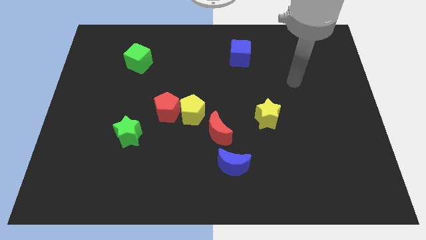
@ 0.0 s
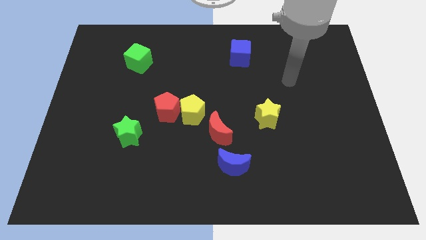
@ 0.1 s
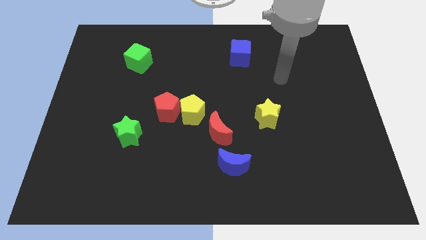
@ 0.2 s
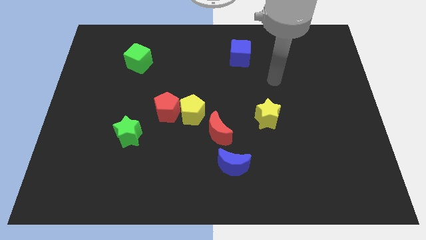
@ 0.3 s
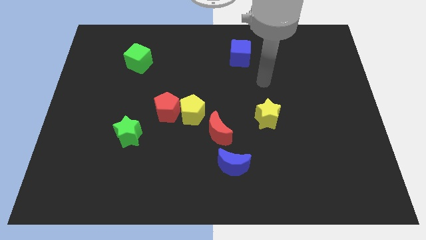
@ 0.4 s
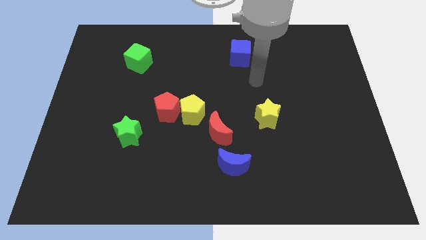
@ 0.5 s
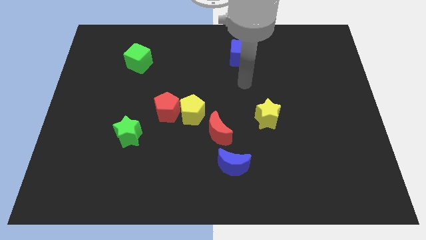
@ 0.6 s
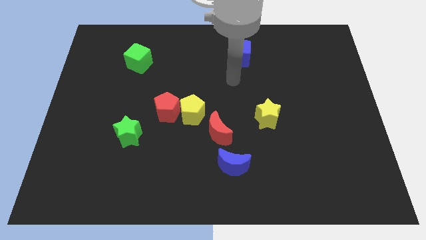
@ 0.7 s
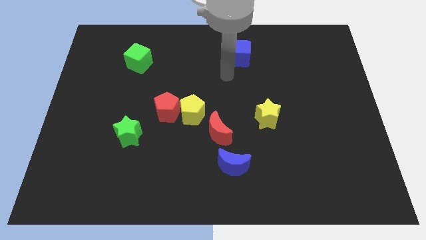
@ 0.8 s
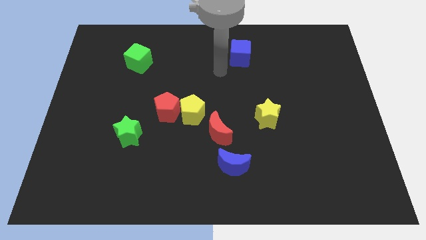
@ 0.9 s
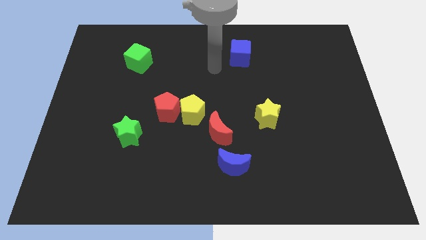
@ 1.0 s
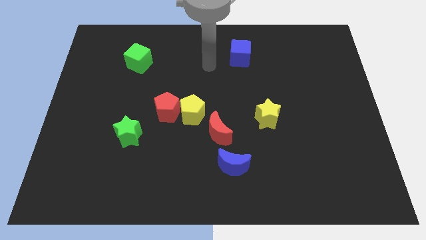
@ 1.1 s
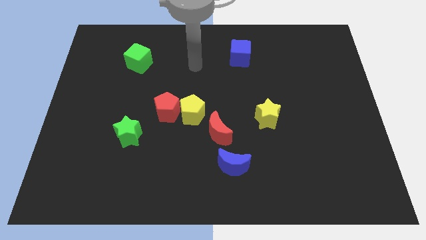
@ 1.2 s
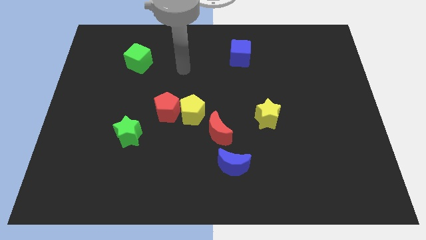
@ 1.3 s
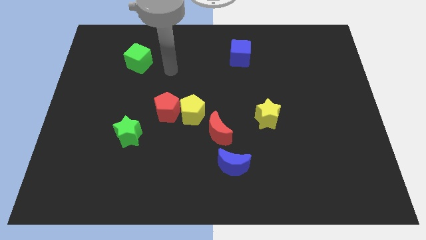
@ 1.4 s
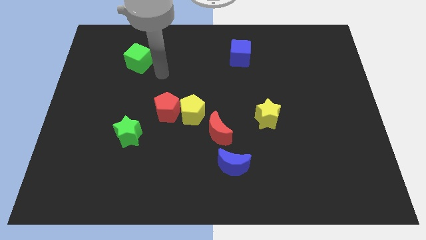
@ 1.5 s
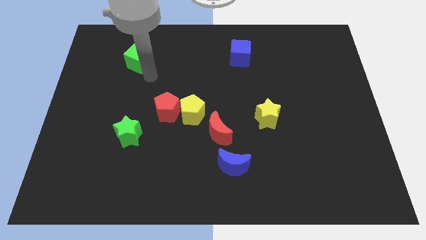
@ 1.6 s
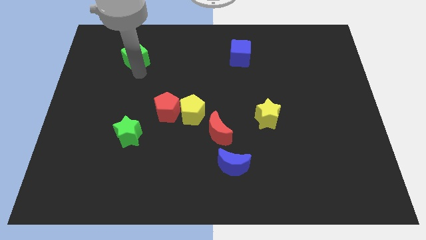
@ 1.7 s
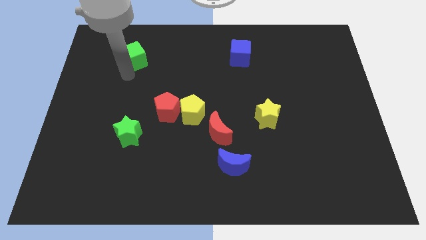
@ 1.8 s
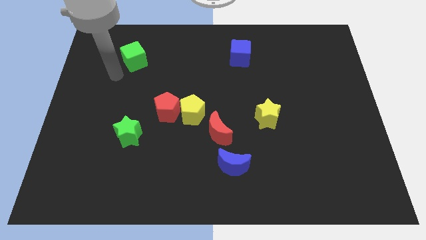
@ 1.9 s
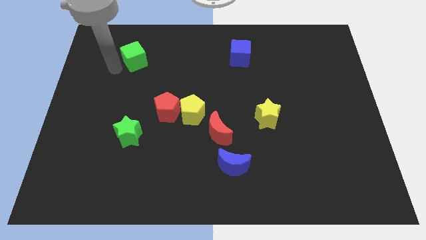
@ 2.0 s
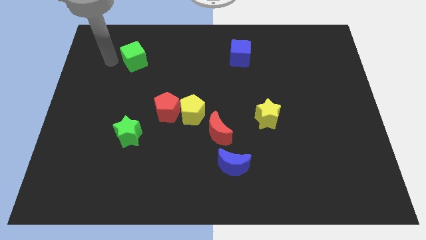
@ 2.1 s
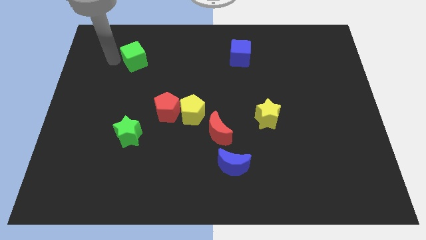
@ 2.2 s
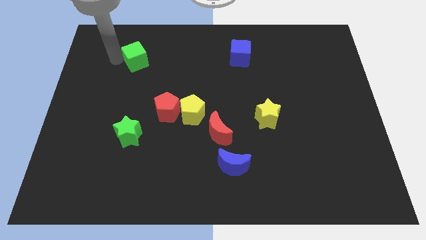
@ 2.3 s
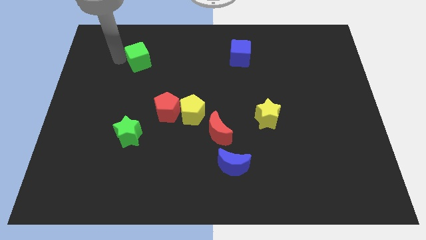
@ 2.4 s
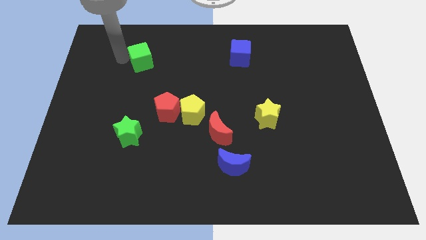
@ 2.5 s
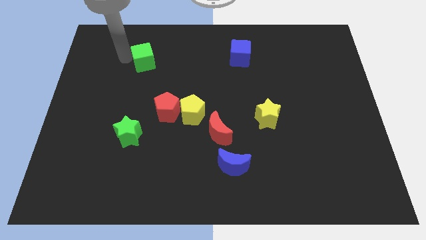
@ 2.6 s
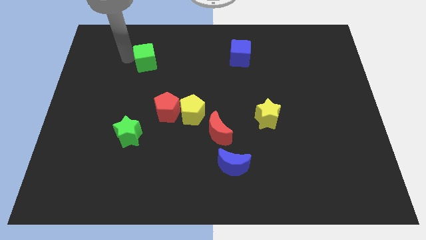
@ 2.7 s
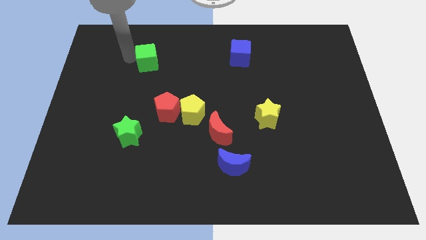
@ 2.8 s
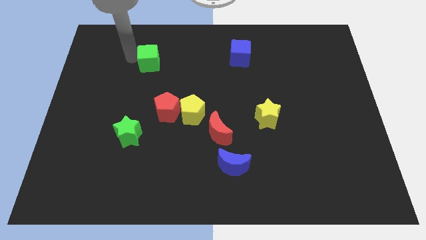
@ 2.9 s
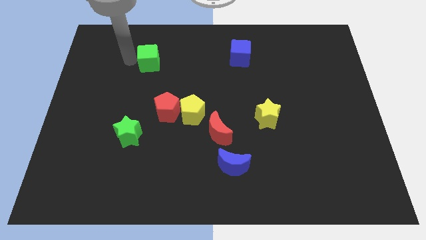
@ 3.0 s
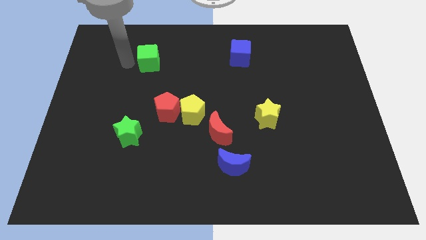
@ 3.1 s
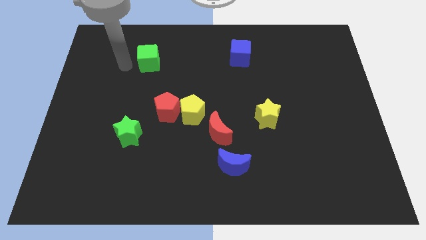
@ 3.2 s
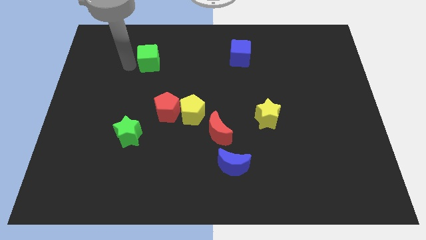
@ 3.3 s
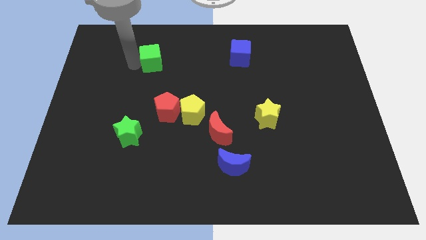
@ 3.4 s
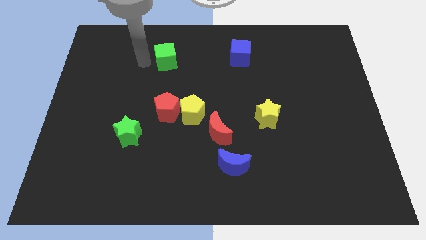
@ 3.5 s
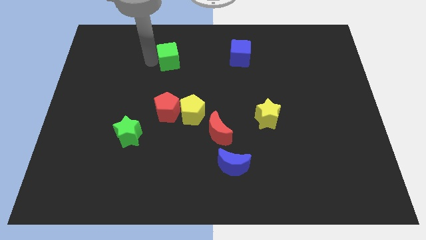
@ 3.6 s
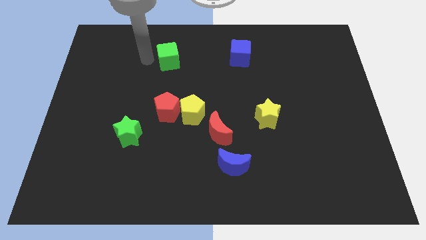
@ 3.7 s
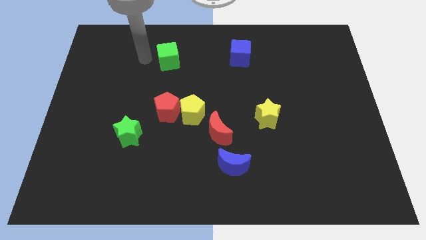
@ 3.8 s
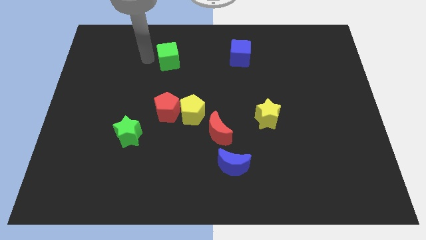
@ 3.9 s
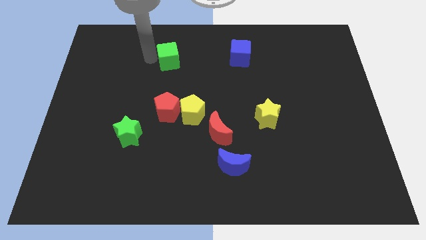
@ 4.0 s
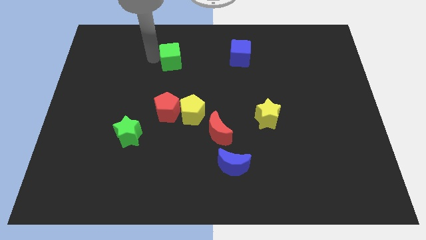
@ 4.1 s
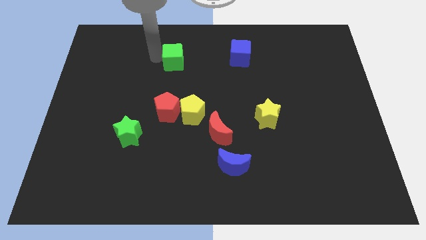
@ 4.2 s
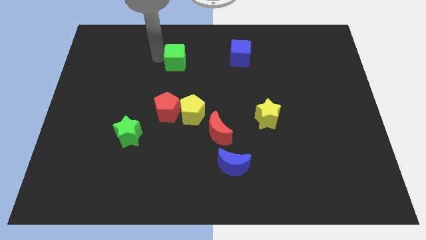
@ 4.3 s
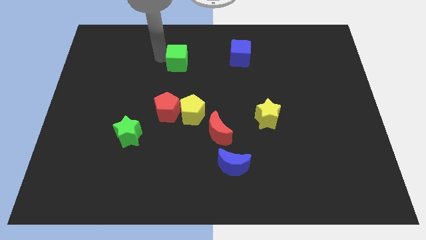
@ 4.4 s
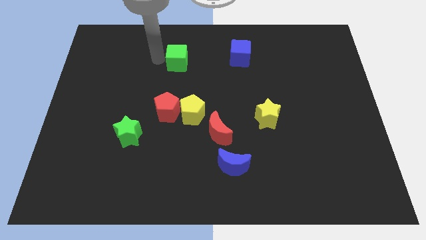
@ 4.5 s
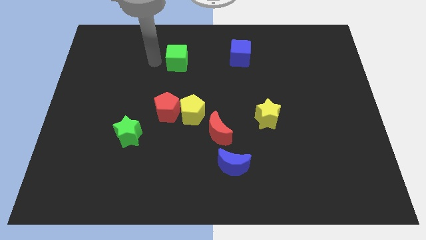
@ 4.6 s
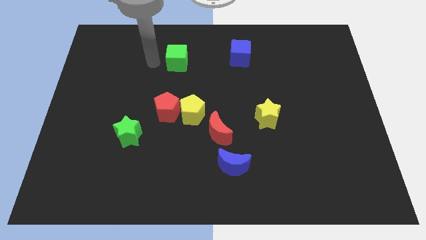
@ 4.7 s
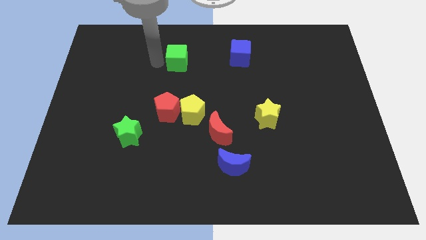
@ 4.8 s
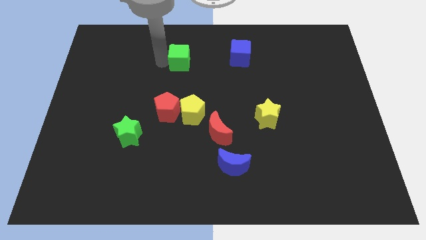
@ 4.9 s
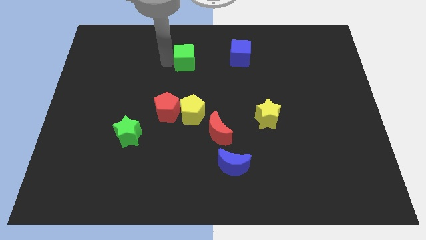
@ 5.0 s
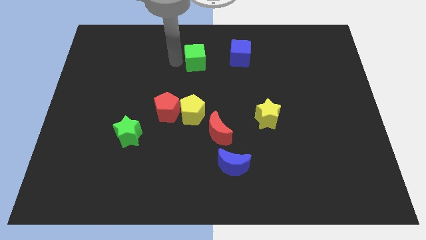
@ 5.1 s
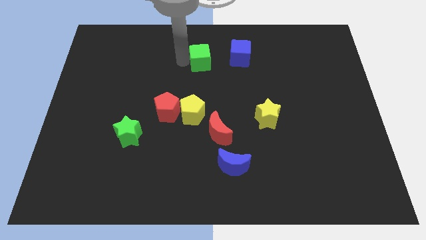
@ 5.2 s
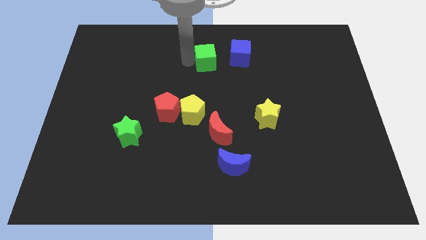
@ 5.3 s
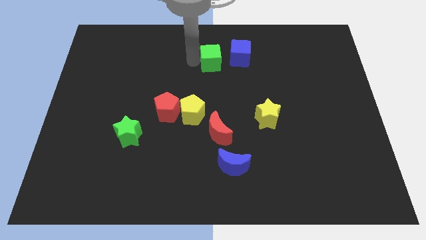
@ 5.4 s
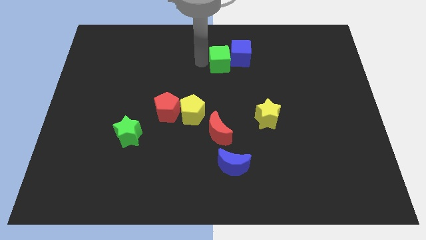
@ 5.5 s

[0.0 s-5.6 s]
push the green cube towards the blue cube

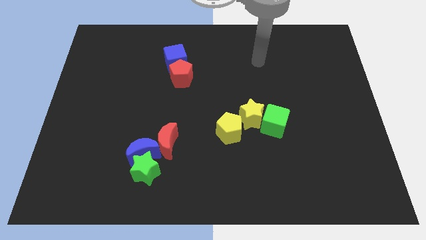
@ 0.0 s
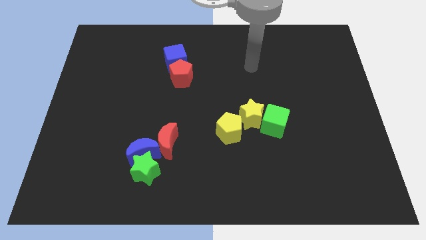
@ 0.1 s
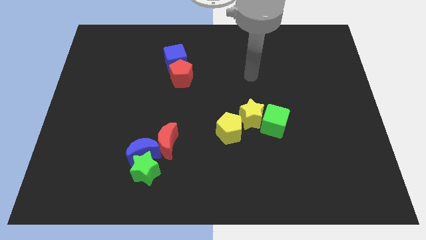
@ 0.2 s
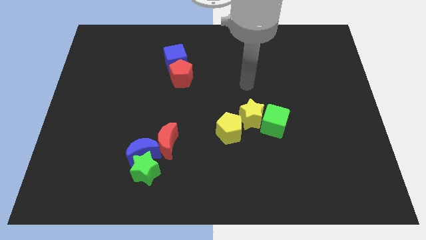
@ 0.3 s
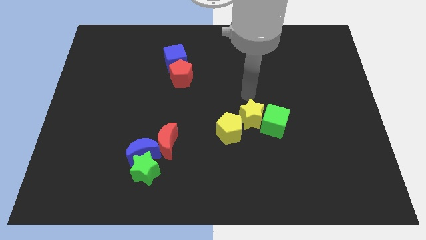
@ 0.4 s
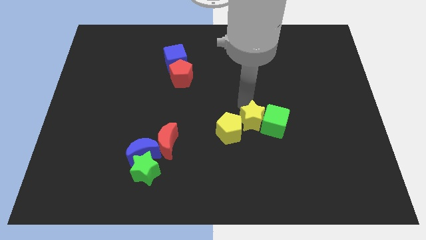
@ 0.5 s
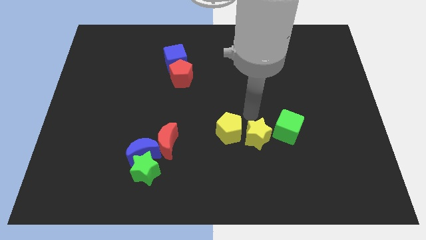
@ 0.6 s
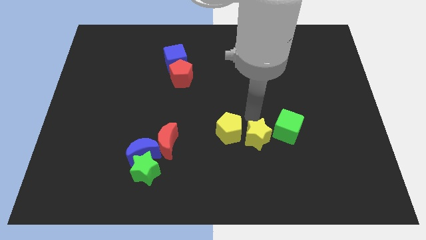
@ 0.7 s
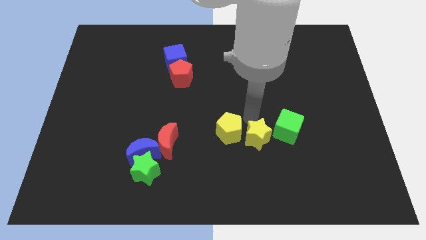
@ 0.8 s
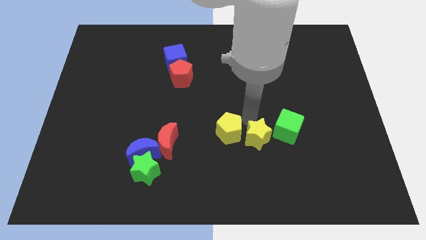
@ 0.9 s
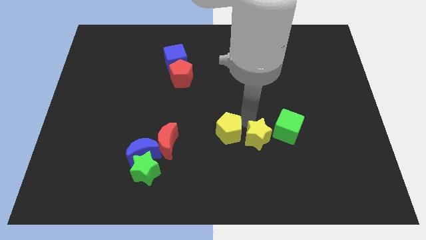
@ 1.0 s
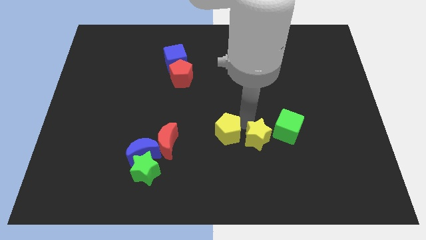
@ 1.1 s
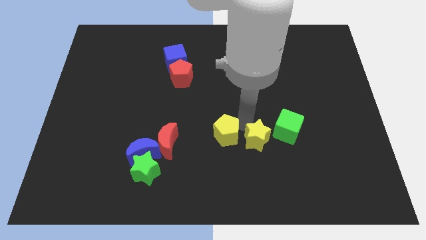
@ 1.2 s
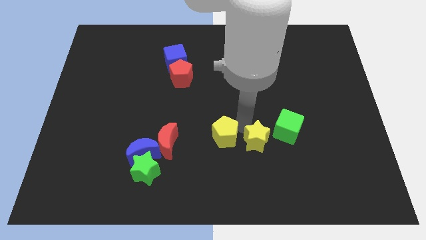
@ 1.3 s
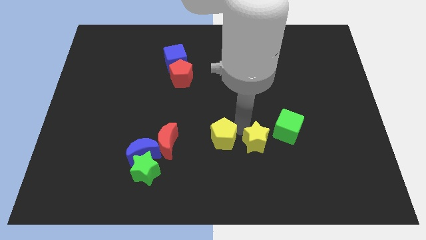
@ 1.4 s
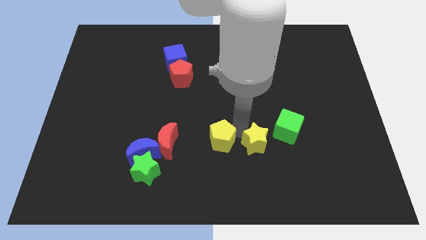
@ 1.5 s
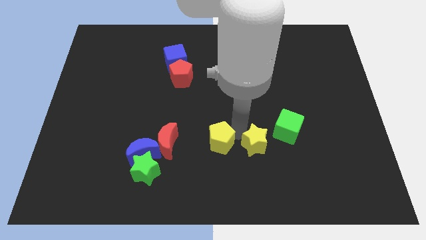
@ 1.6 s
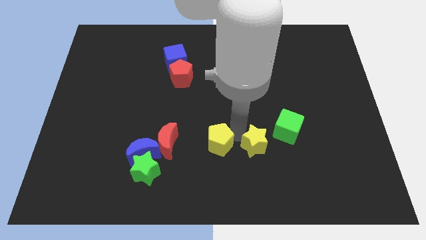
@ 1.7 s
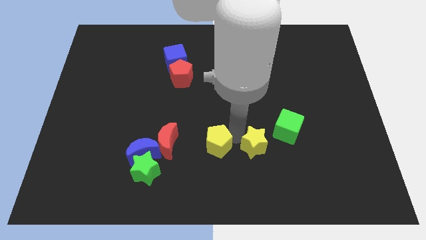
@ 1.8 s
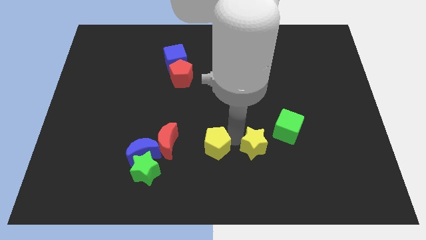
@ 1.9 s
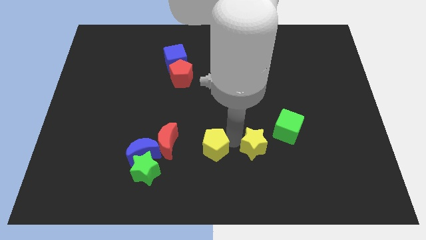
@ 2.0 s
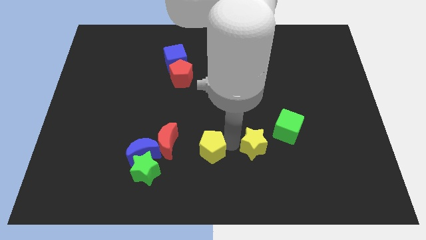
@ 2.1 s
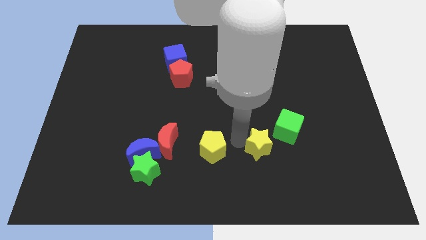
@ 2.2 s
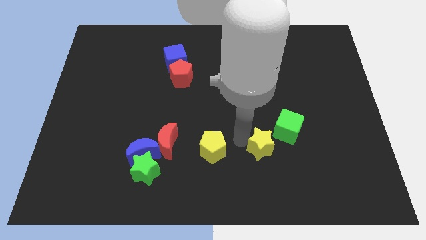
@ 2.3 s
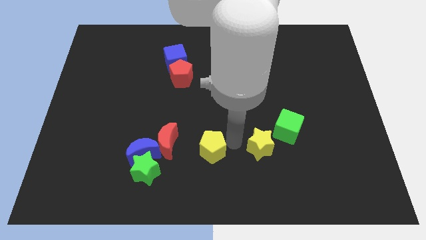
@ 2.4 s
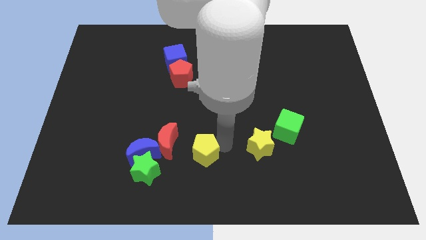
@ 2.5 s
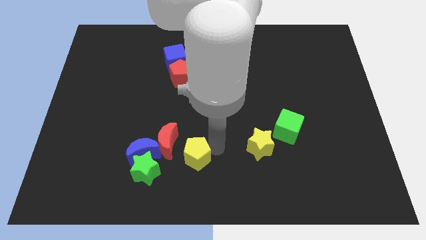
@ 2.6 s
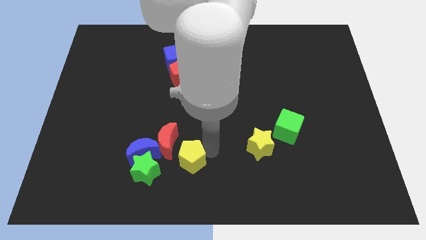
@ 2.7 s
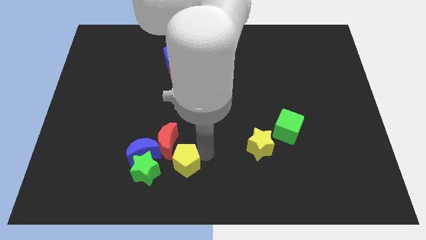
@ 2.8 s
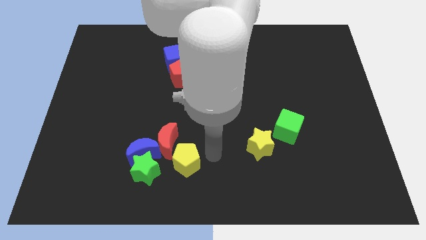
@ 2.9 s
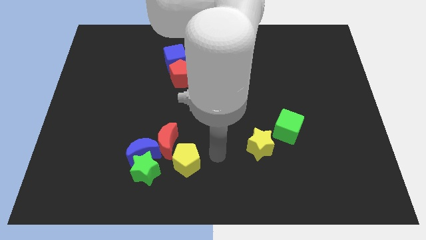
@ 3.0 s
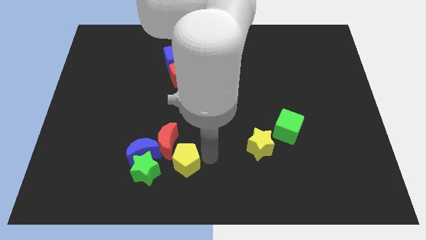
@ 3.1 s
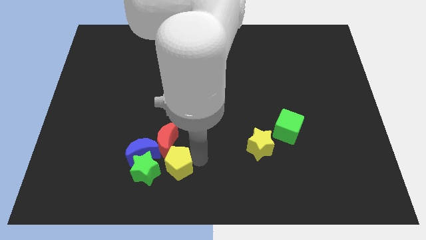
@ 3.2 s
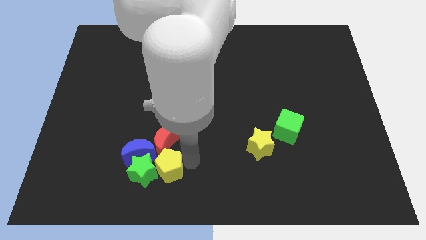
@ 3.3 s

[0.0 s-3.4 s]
move the yellow pentagon next to the green star
